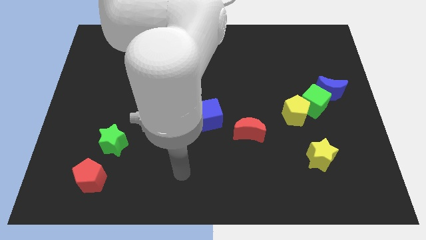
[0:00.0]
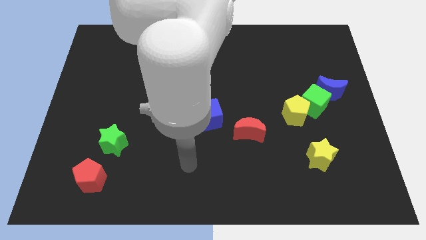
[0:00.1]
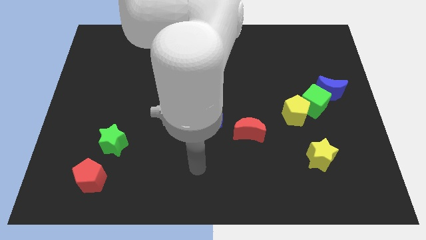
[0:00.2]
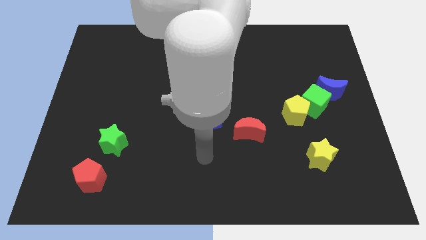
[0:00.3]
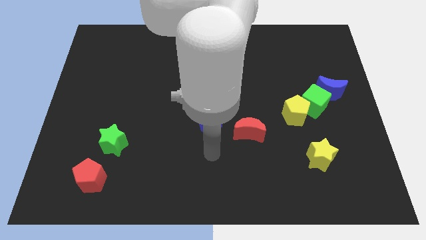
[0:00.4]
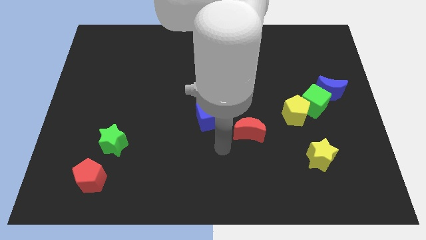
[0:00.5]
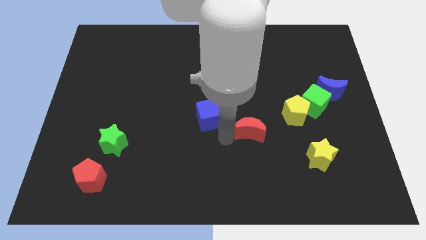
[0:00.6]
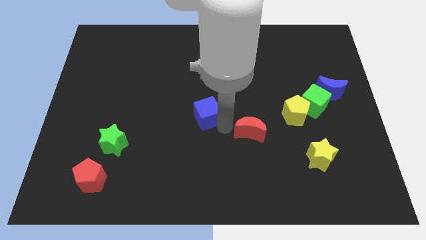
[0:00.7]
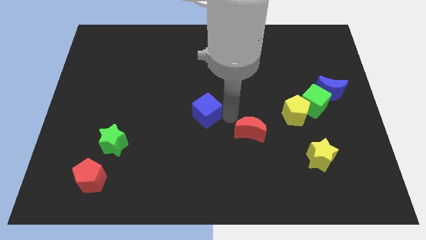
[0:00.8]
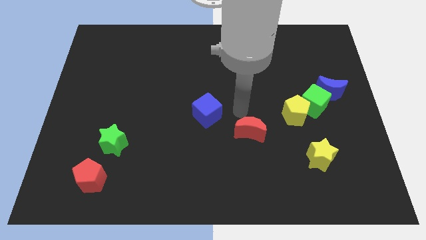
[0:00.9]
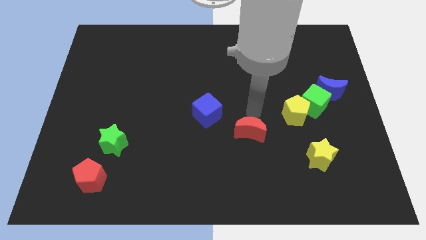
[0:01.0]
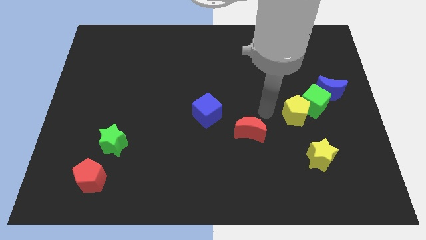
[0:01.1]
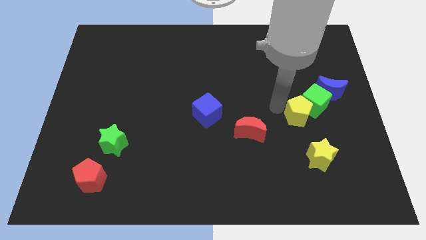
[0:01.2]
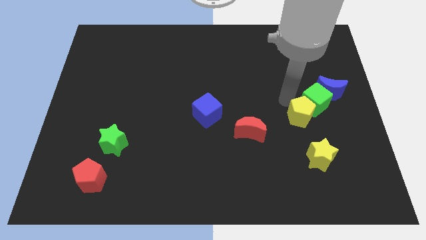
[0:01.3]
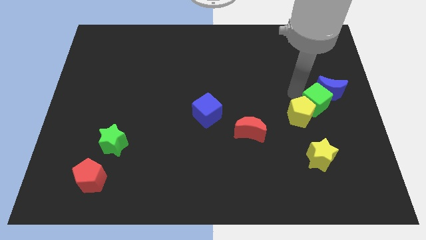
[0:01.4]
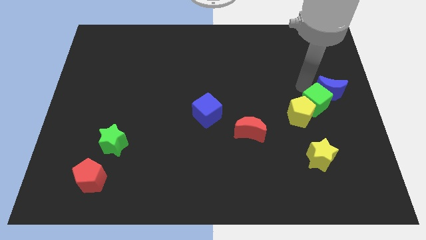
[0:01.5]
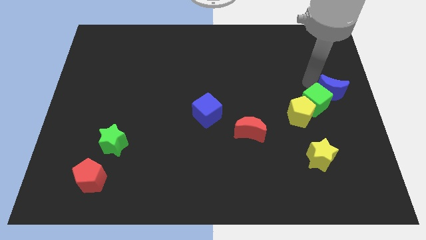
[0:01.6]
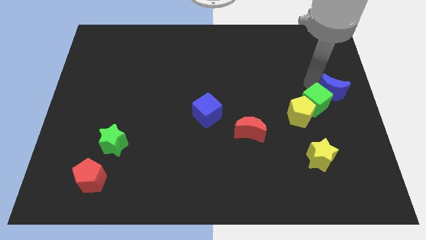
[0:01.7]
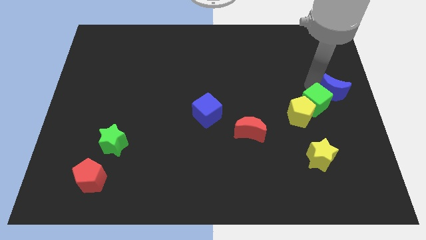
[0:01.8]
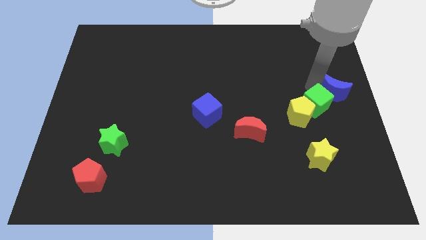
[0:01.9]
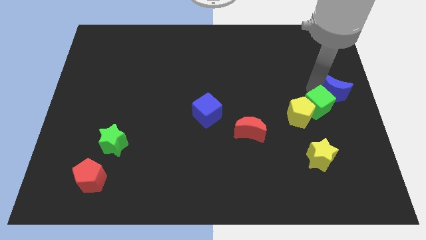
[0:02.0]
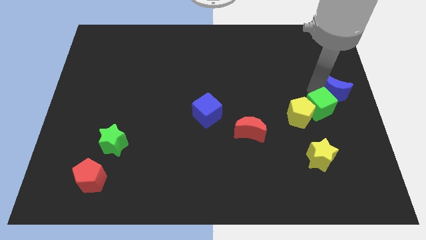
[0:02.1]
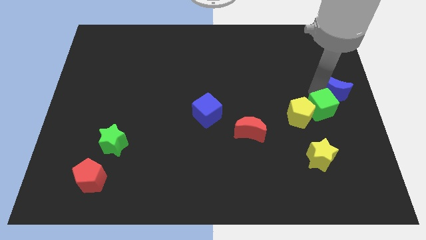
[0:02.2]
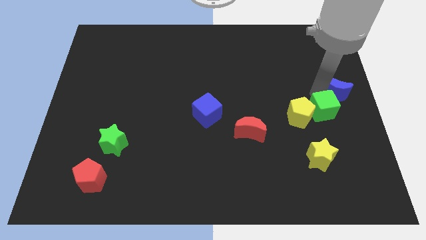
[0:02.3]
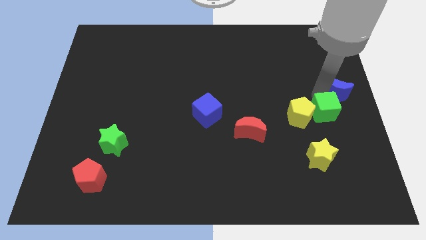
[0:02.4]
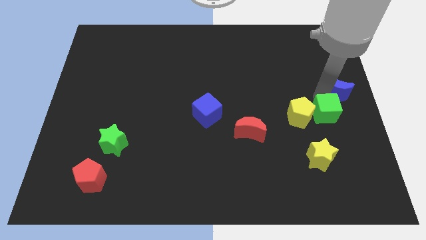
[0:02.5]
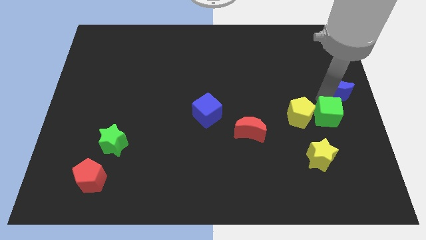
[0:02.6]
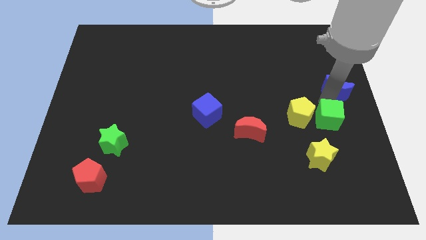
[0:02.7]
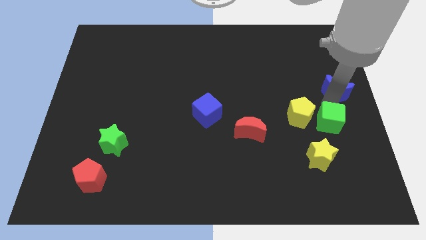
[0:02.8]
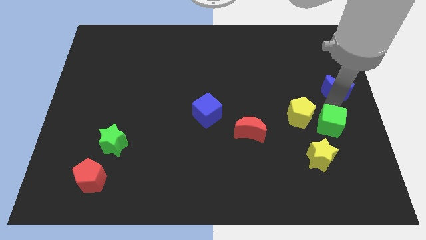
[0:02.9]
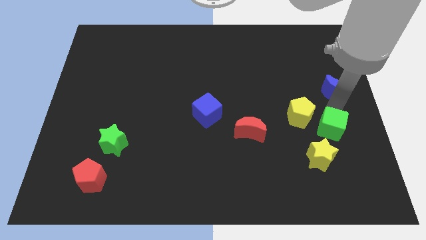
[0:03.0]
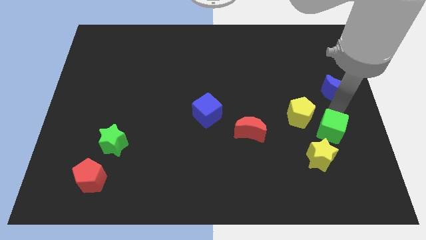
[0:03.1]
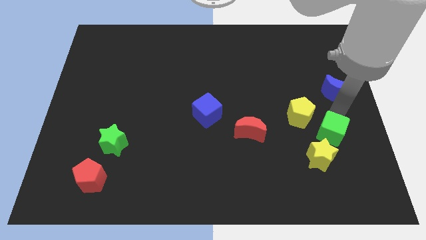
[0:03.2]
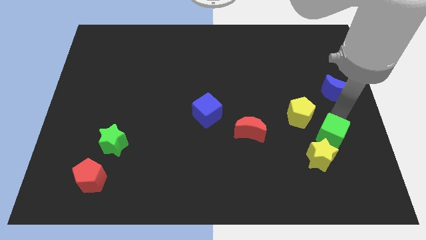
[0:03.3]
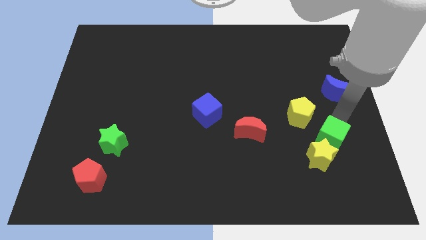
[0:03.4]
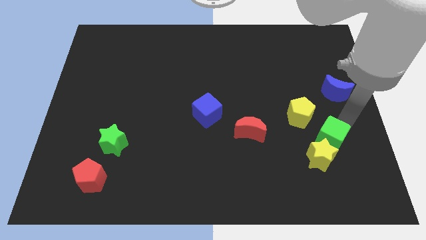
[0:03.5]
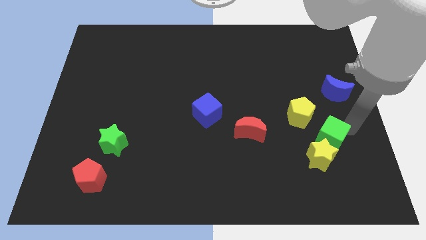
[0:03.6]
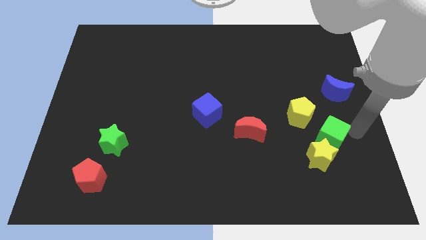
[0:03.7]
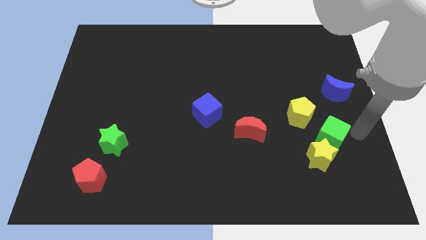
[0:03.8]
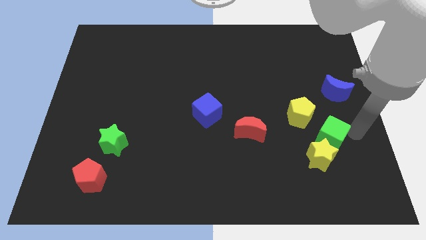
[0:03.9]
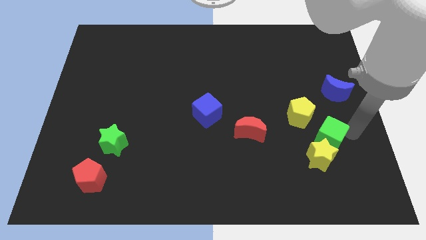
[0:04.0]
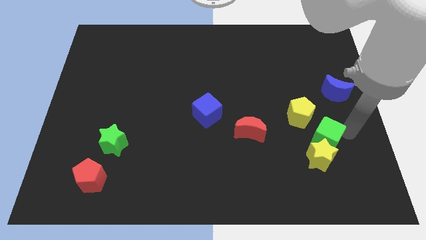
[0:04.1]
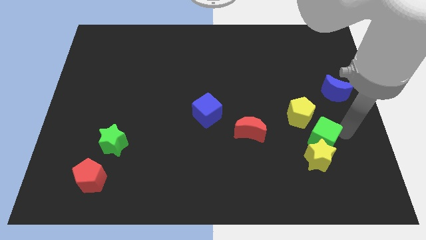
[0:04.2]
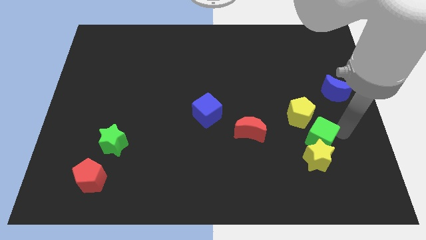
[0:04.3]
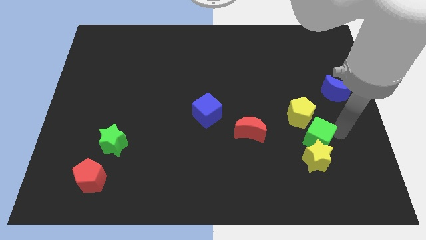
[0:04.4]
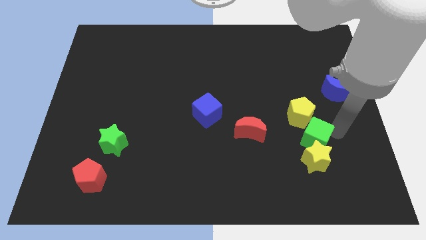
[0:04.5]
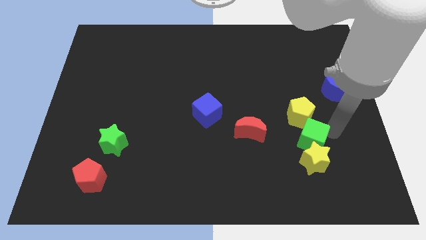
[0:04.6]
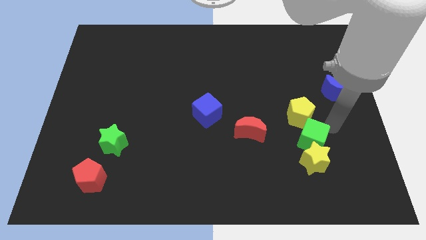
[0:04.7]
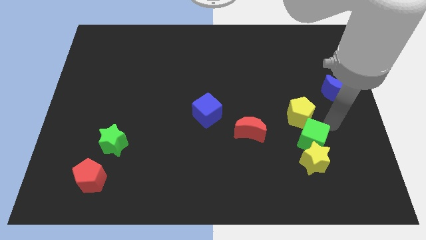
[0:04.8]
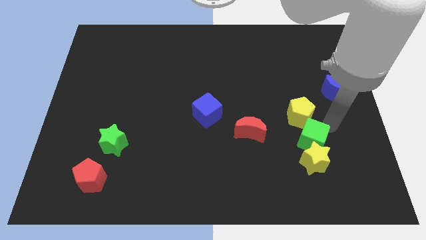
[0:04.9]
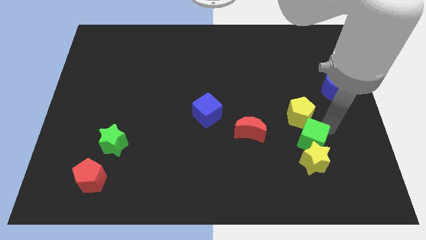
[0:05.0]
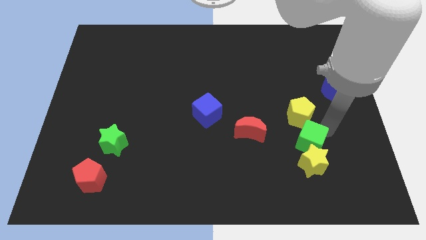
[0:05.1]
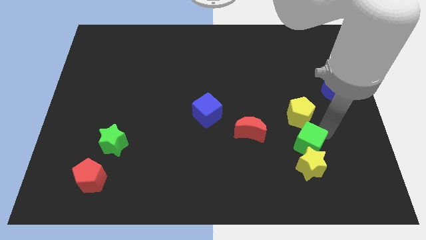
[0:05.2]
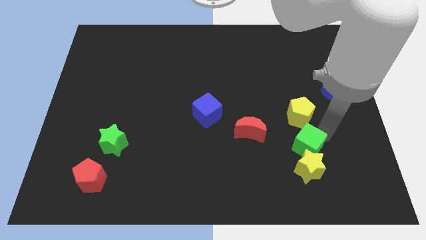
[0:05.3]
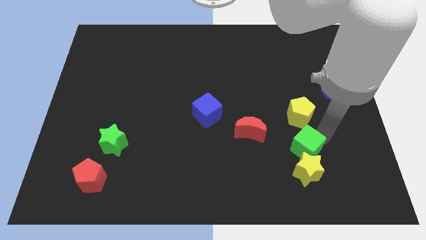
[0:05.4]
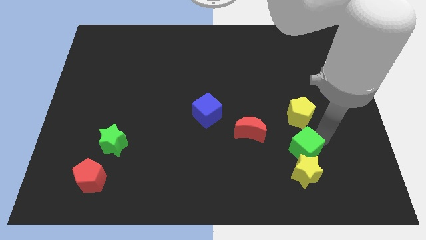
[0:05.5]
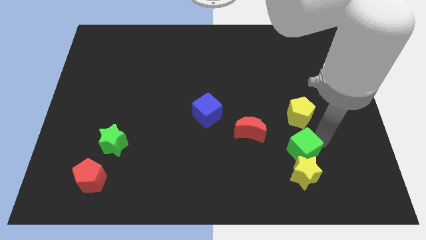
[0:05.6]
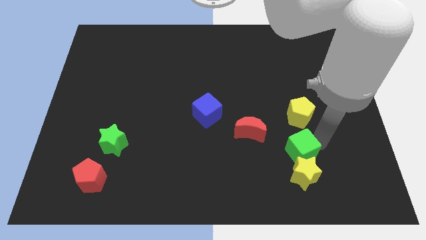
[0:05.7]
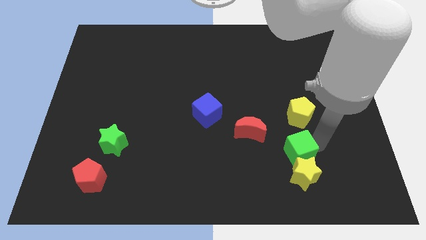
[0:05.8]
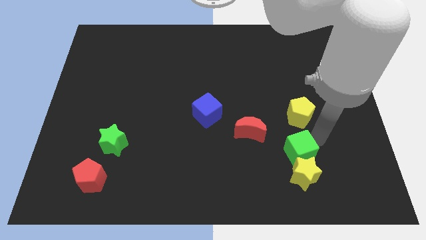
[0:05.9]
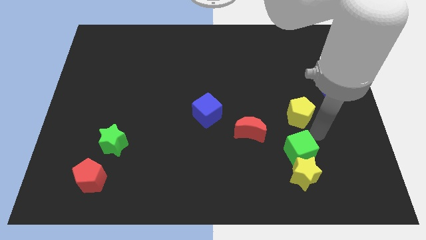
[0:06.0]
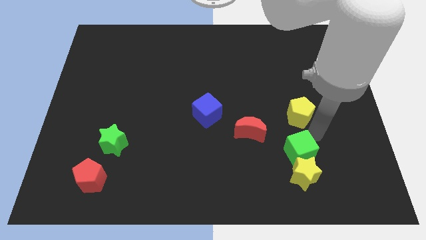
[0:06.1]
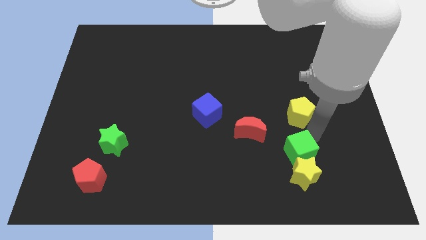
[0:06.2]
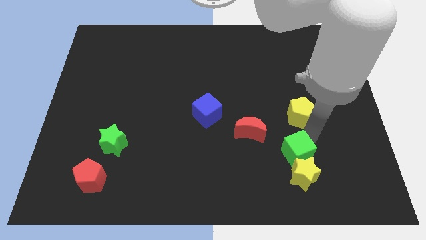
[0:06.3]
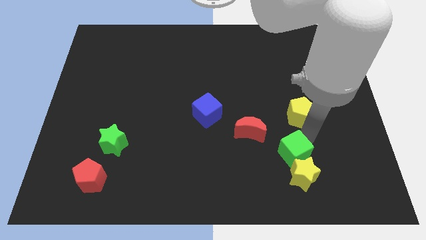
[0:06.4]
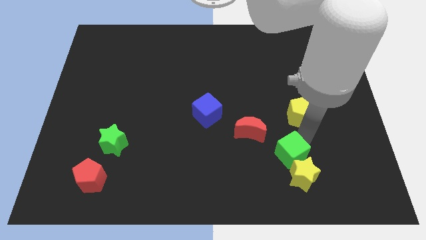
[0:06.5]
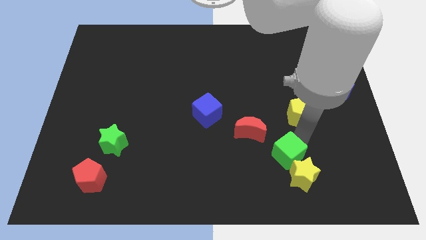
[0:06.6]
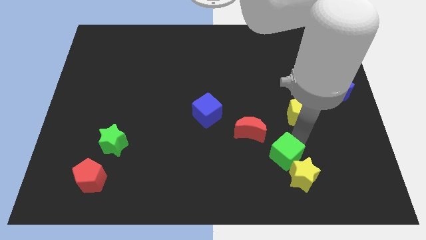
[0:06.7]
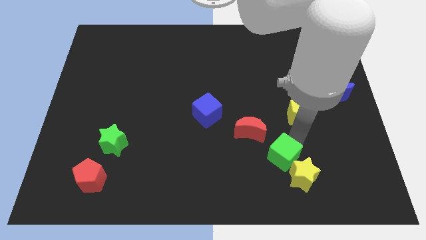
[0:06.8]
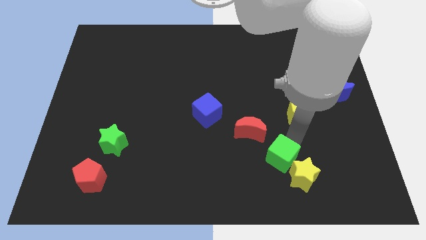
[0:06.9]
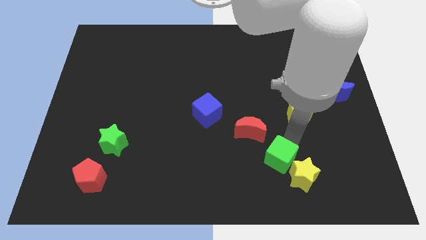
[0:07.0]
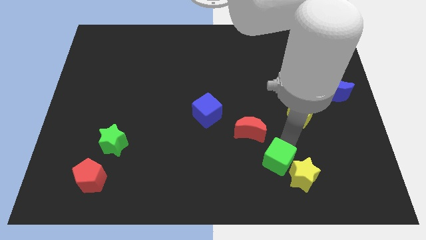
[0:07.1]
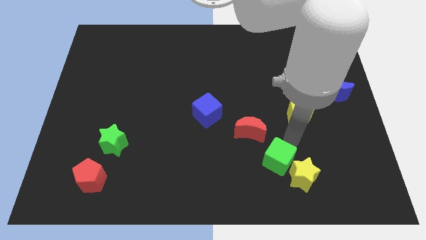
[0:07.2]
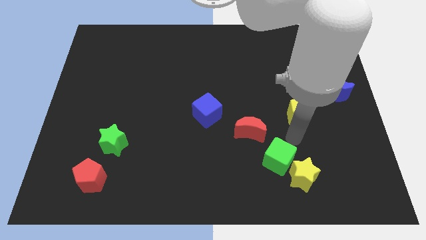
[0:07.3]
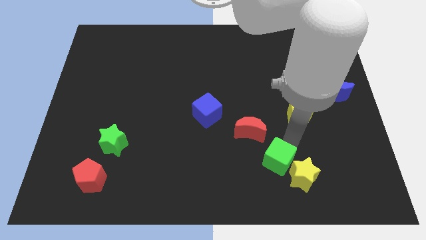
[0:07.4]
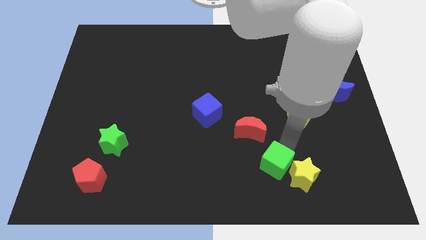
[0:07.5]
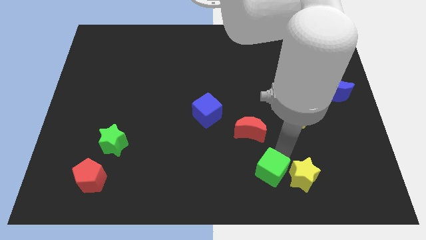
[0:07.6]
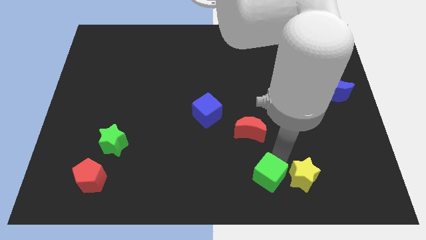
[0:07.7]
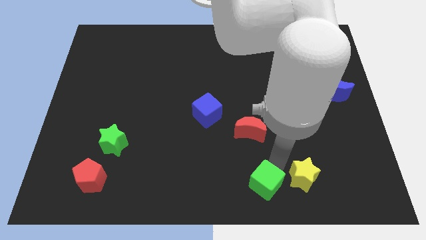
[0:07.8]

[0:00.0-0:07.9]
slide the green cube to the bottom
